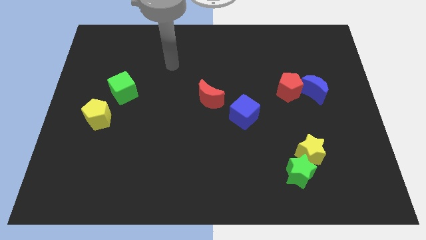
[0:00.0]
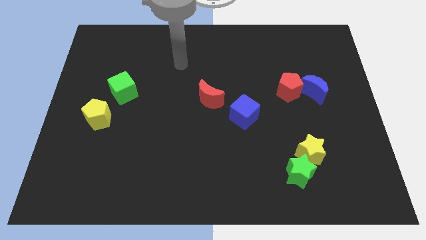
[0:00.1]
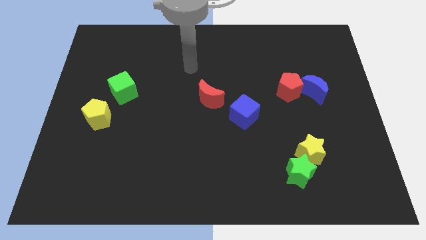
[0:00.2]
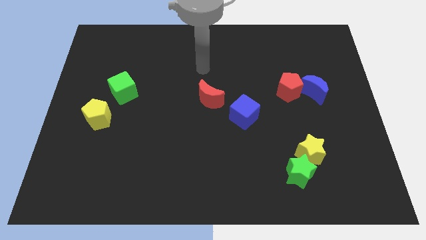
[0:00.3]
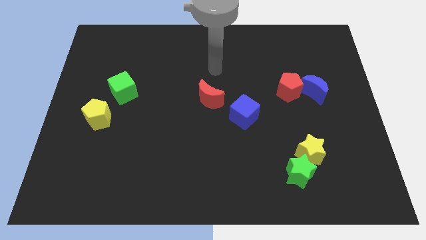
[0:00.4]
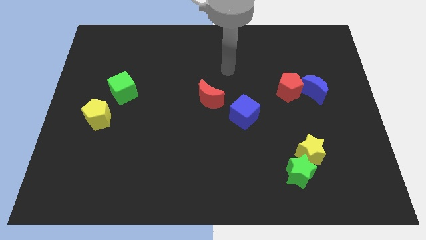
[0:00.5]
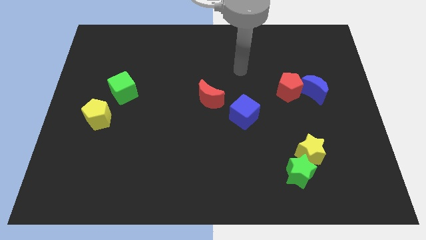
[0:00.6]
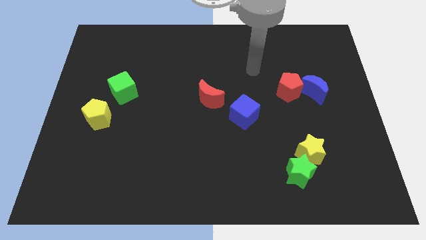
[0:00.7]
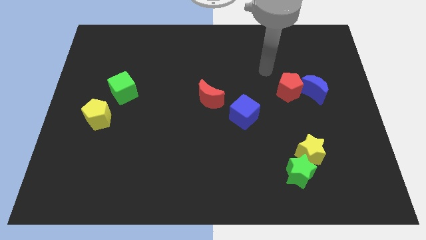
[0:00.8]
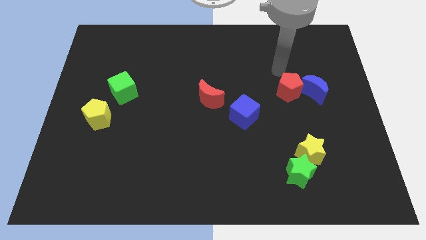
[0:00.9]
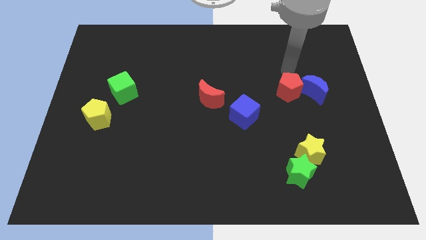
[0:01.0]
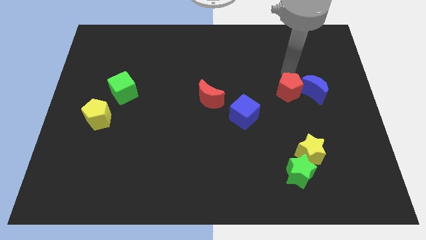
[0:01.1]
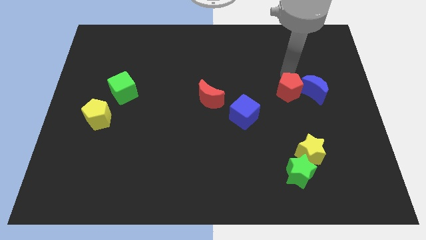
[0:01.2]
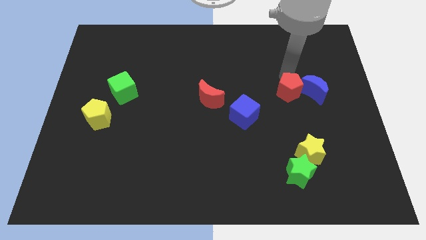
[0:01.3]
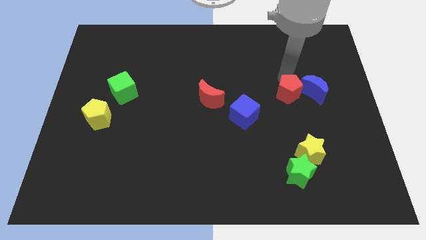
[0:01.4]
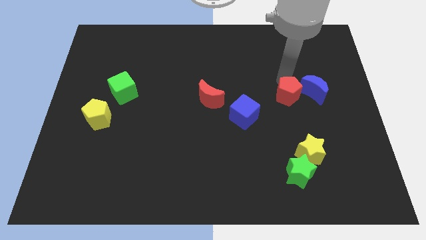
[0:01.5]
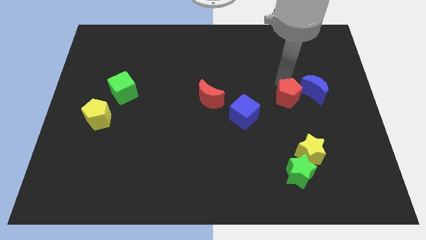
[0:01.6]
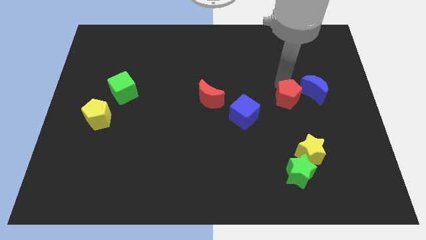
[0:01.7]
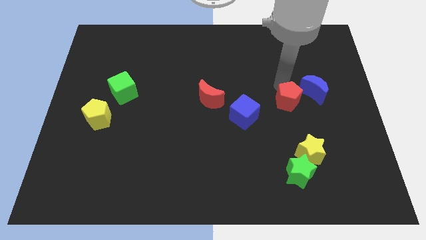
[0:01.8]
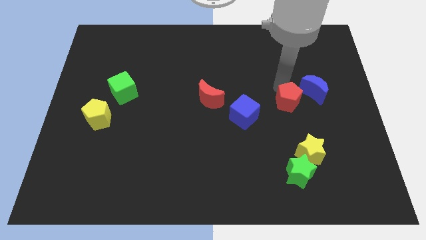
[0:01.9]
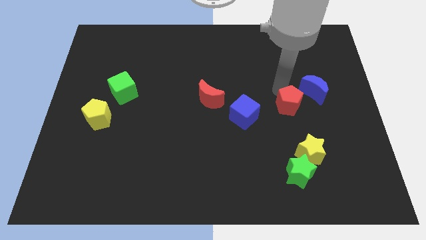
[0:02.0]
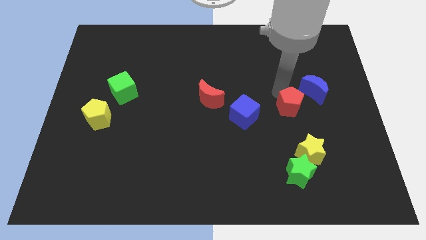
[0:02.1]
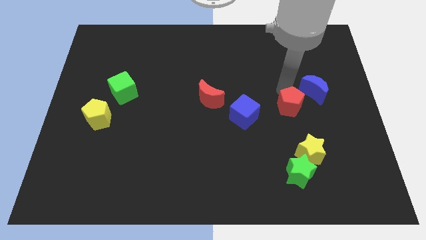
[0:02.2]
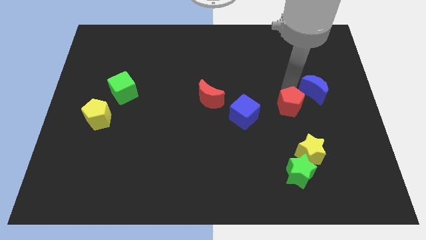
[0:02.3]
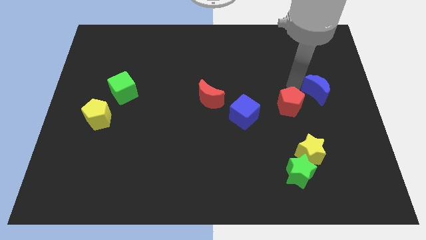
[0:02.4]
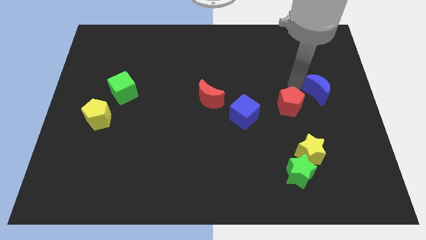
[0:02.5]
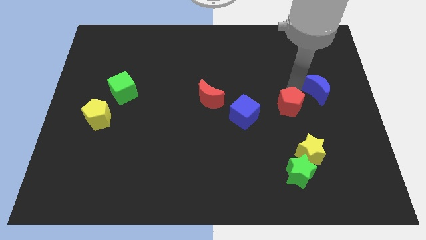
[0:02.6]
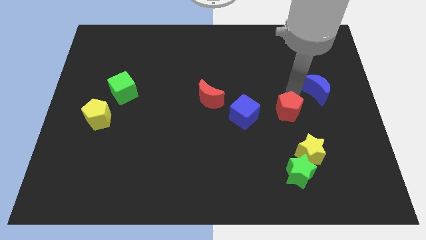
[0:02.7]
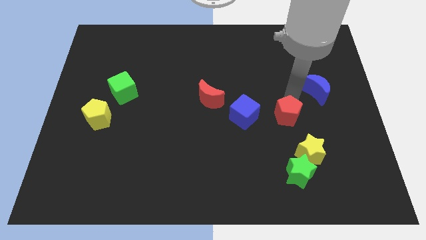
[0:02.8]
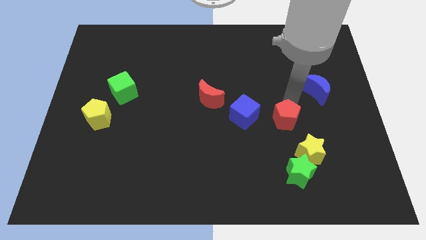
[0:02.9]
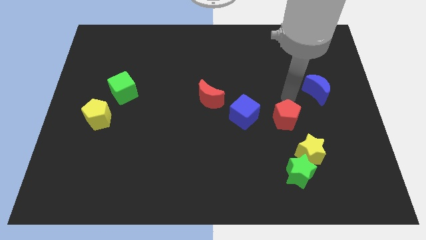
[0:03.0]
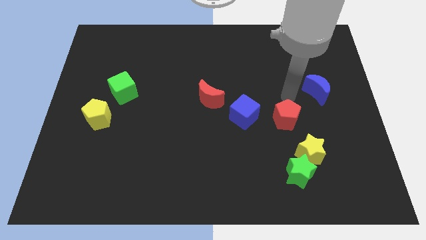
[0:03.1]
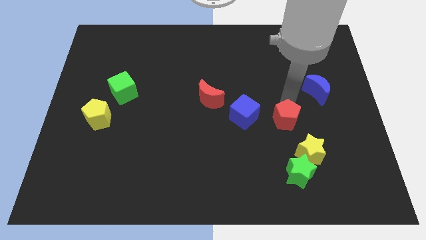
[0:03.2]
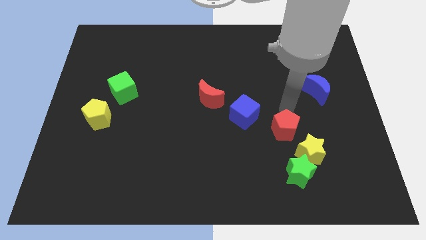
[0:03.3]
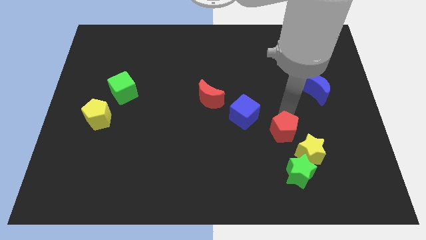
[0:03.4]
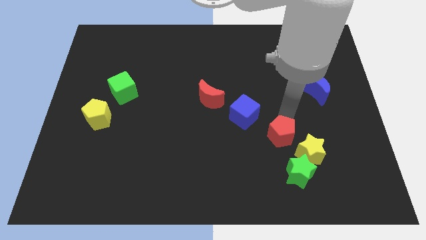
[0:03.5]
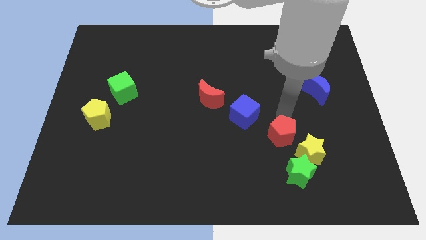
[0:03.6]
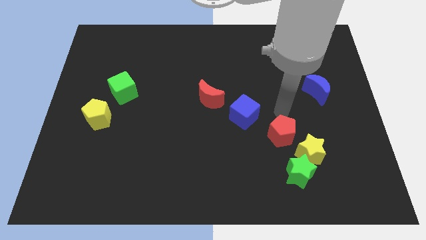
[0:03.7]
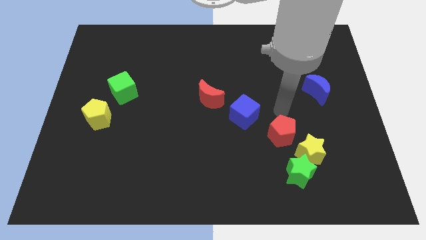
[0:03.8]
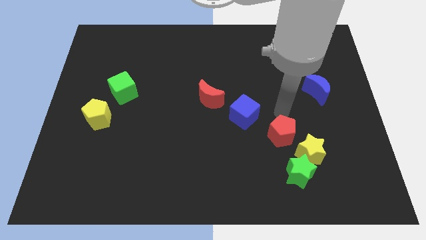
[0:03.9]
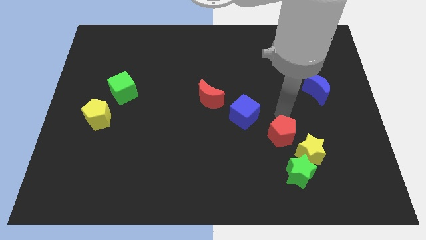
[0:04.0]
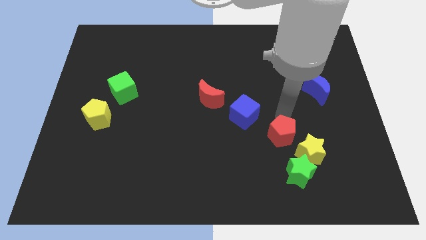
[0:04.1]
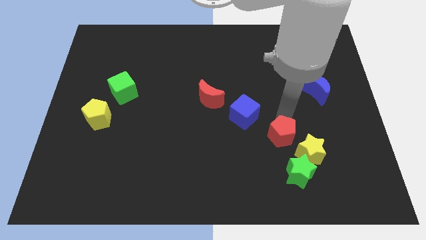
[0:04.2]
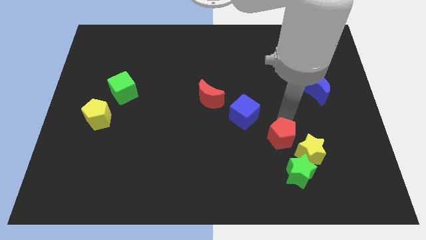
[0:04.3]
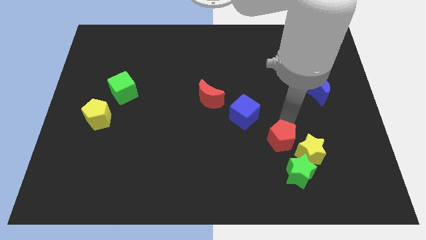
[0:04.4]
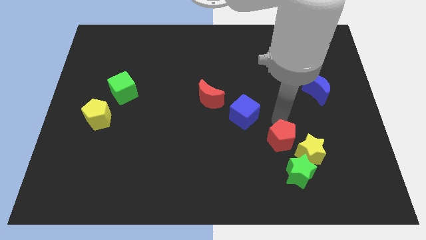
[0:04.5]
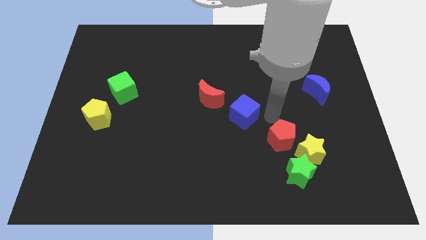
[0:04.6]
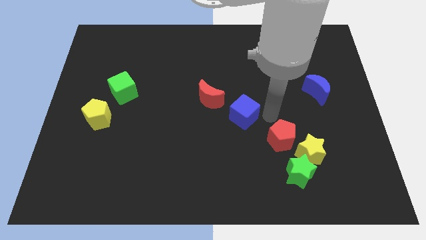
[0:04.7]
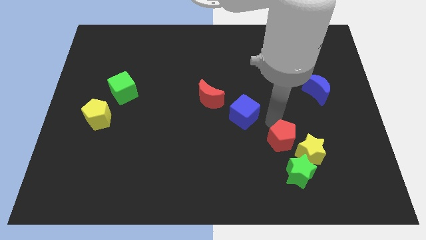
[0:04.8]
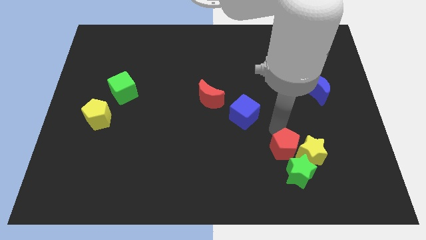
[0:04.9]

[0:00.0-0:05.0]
move the red pentagon close to the green star

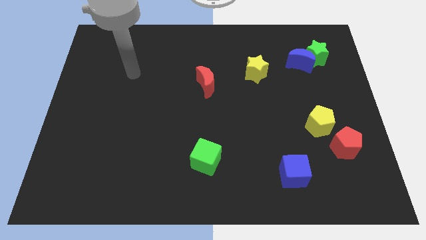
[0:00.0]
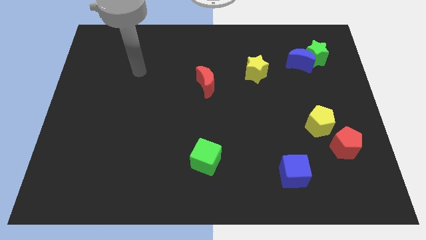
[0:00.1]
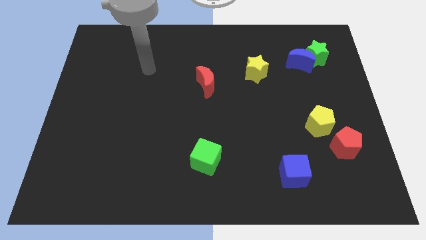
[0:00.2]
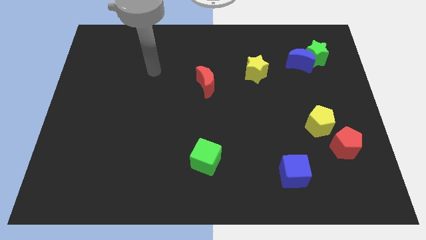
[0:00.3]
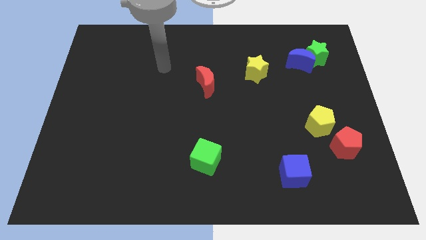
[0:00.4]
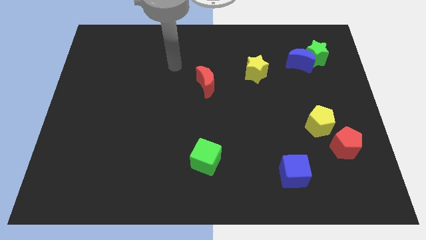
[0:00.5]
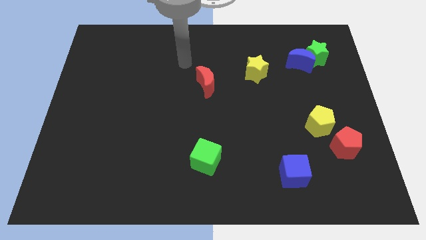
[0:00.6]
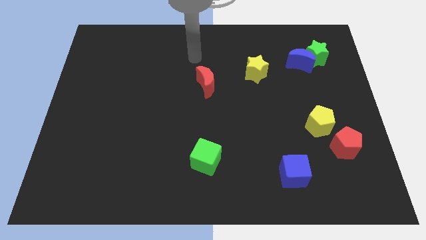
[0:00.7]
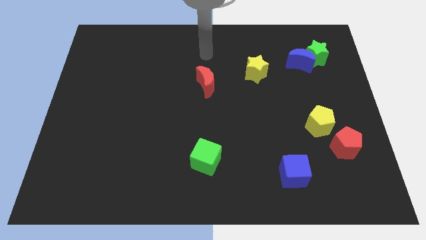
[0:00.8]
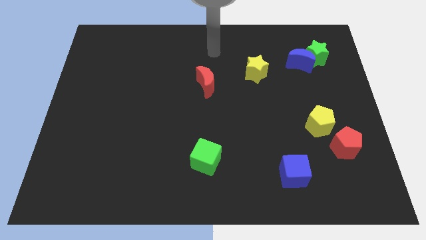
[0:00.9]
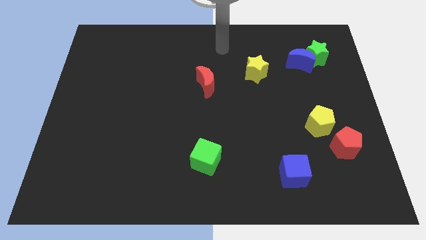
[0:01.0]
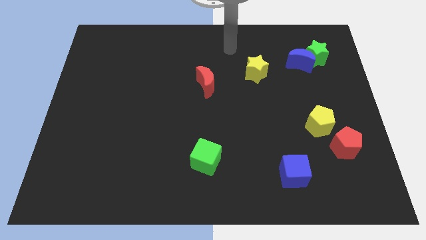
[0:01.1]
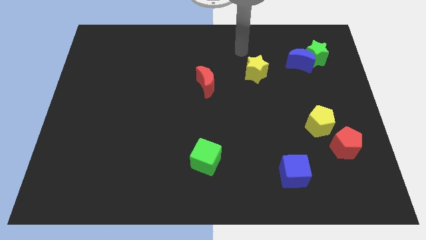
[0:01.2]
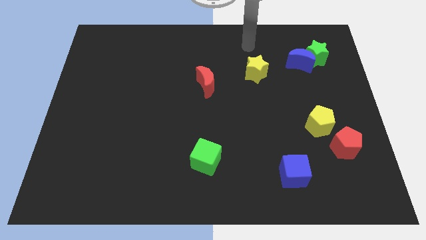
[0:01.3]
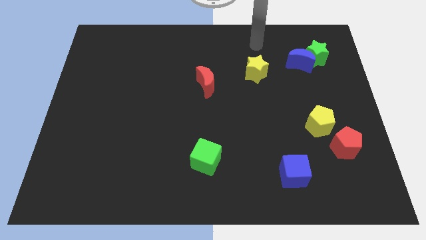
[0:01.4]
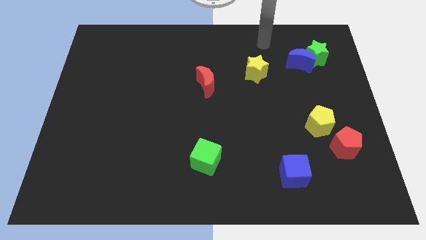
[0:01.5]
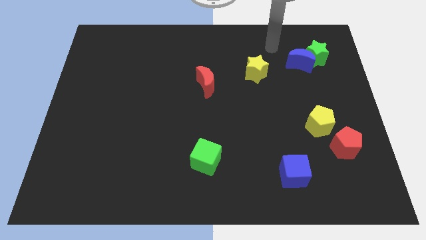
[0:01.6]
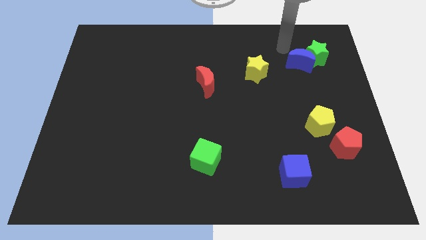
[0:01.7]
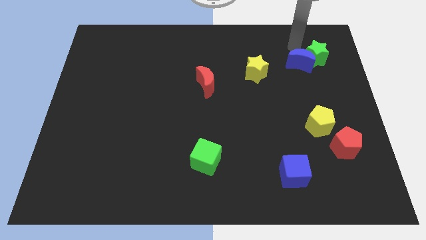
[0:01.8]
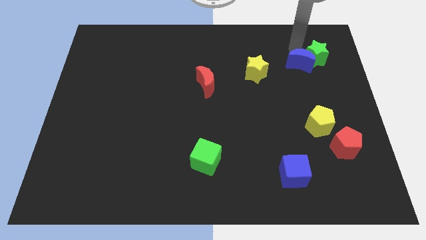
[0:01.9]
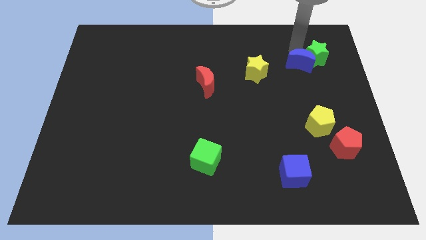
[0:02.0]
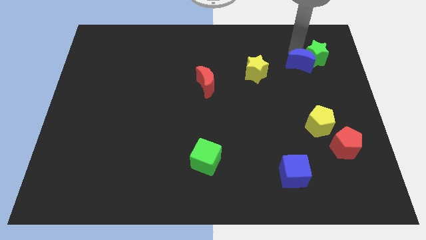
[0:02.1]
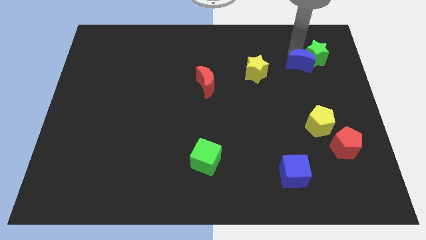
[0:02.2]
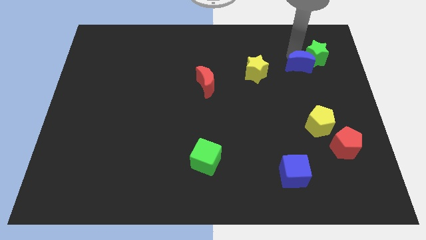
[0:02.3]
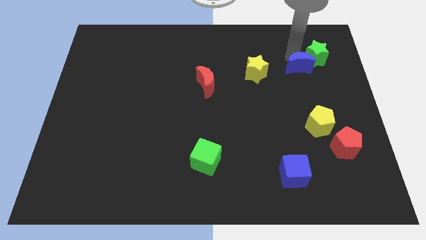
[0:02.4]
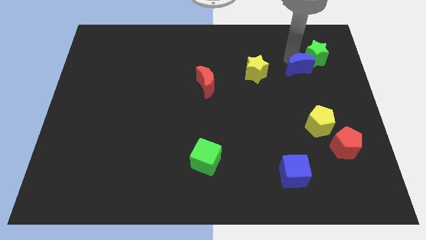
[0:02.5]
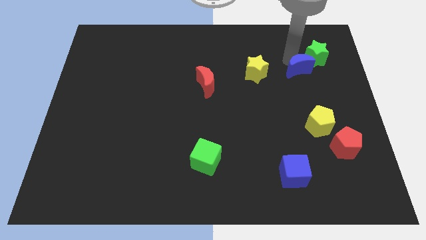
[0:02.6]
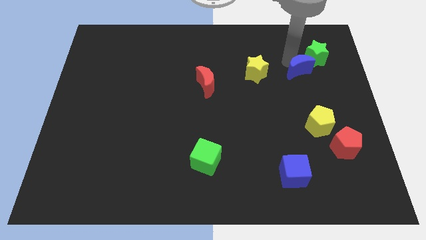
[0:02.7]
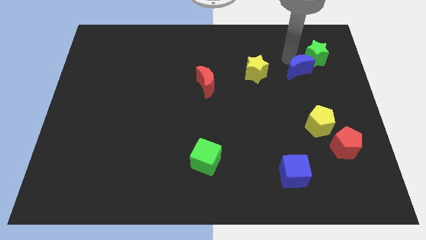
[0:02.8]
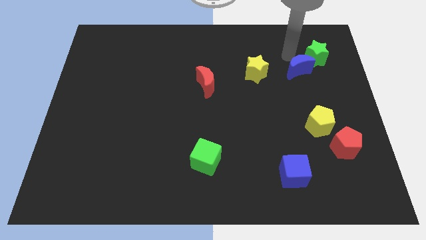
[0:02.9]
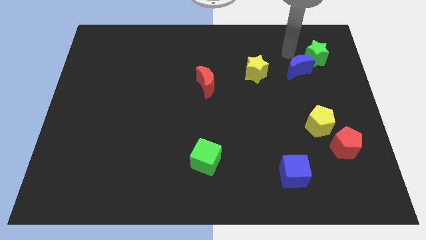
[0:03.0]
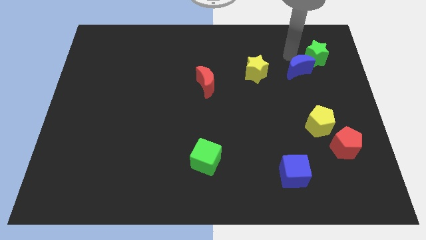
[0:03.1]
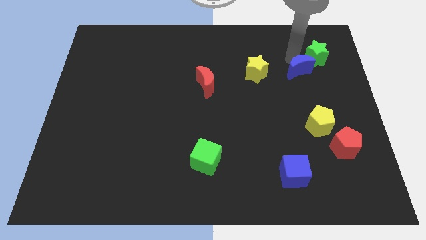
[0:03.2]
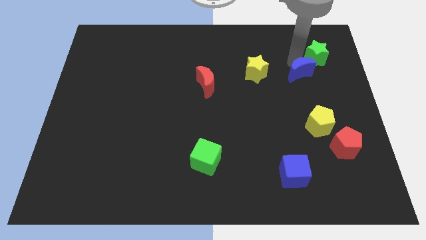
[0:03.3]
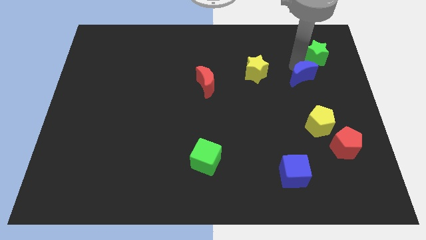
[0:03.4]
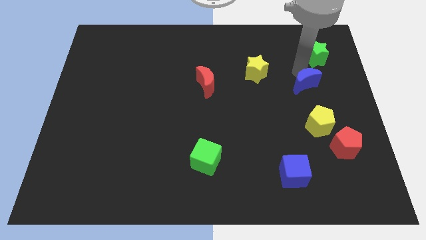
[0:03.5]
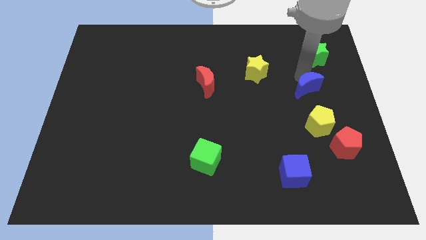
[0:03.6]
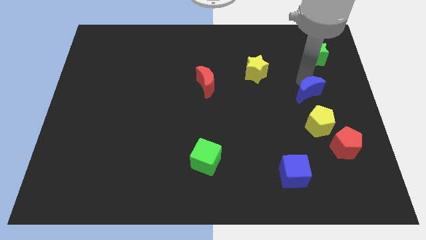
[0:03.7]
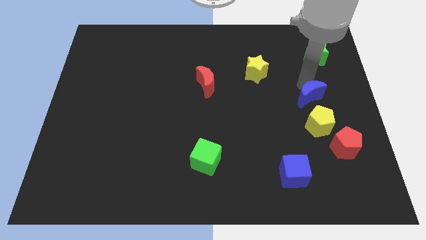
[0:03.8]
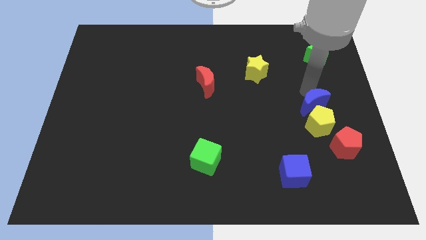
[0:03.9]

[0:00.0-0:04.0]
push the blue moon next to the yellow pentagon
